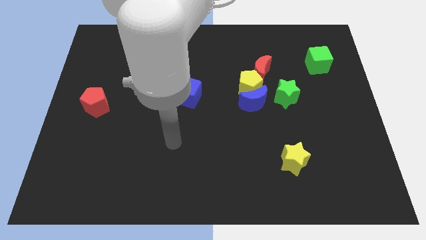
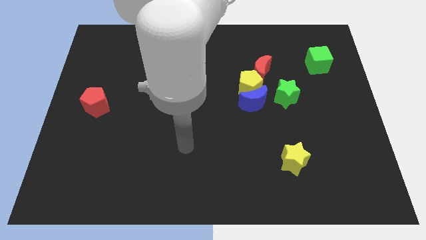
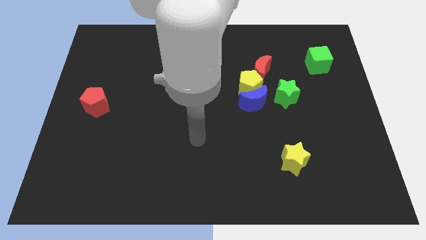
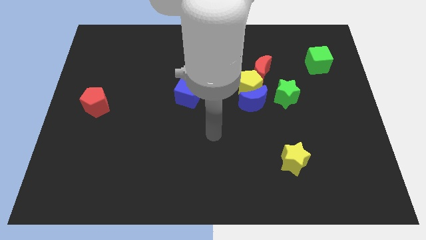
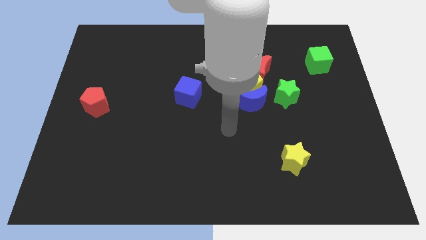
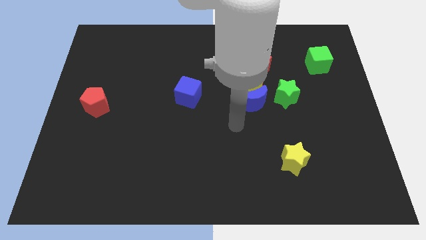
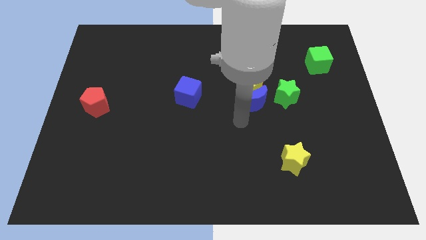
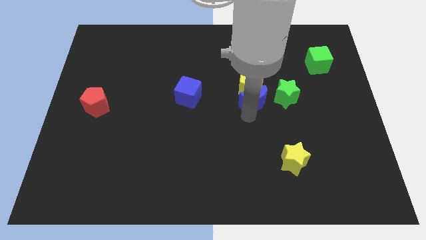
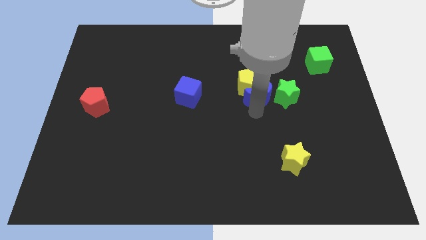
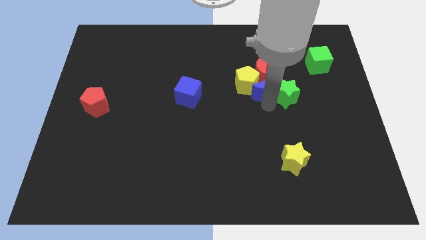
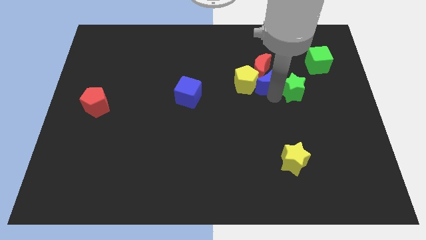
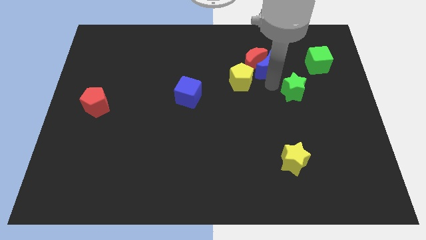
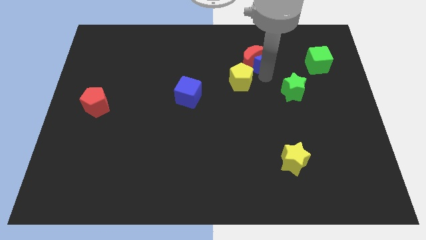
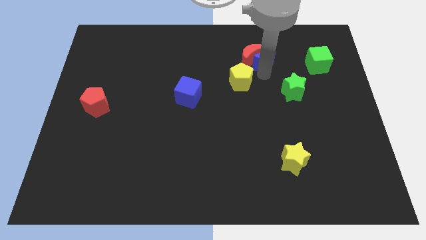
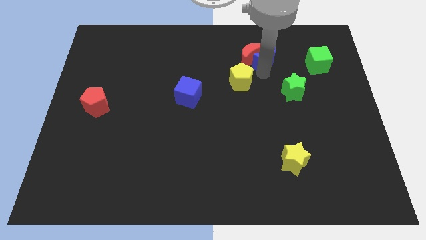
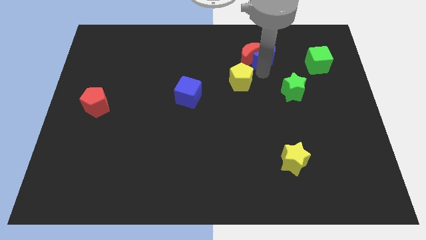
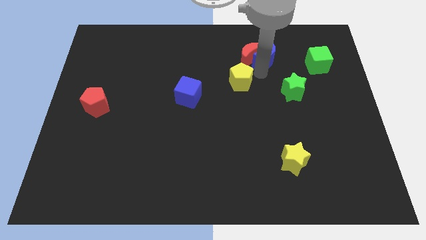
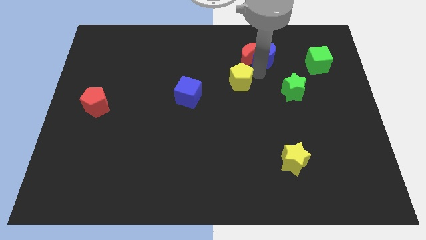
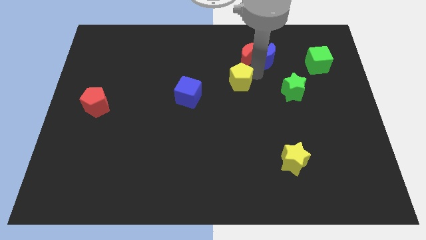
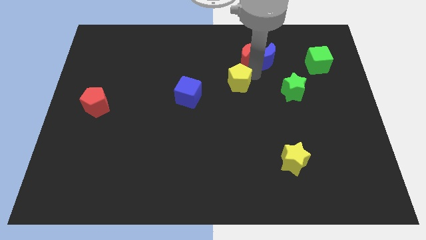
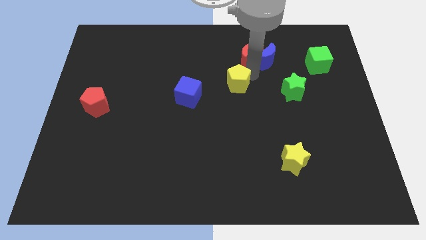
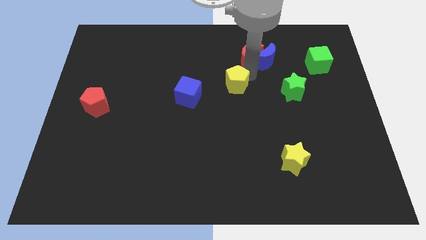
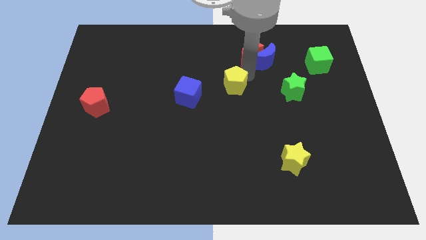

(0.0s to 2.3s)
pull the yellow pentagon apart from the blue moon, red moon, and green star

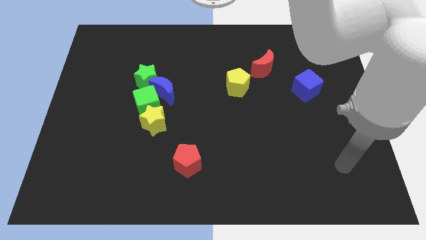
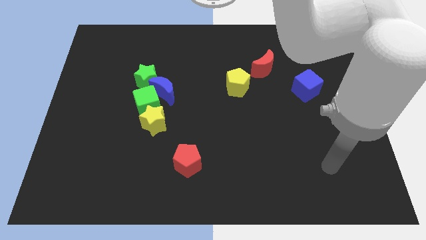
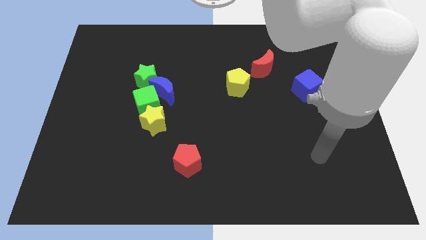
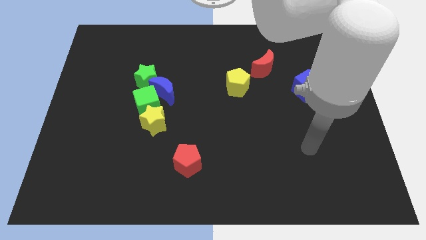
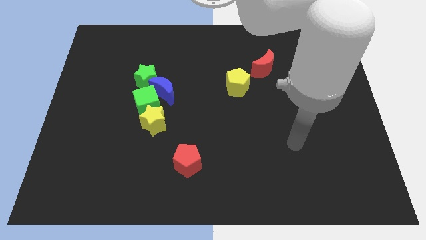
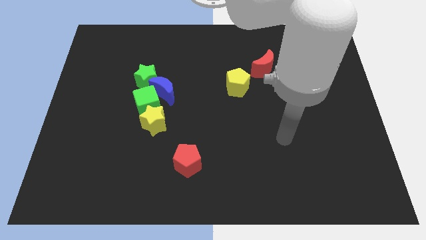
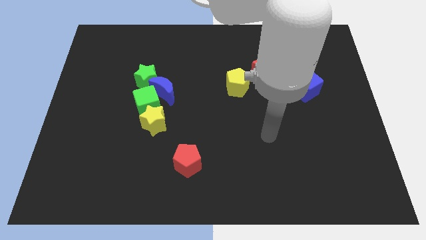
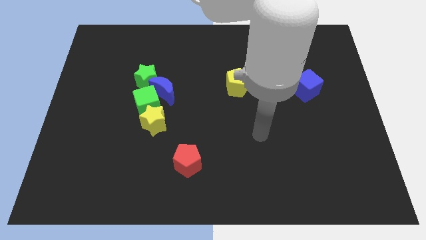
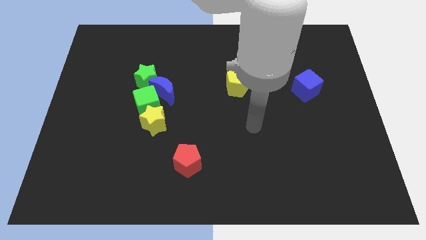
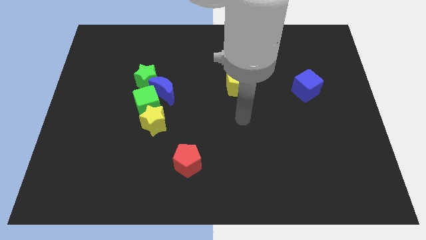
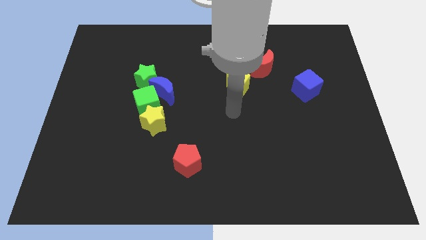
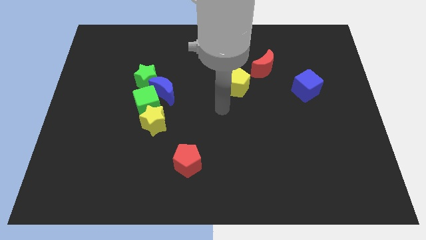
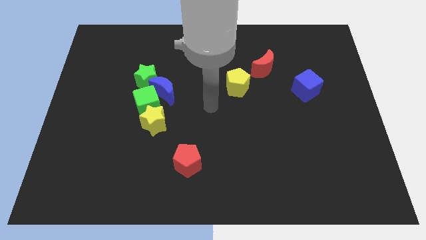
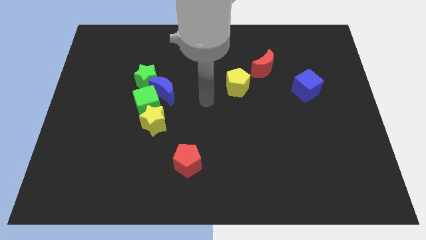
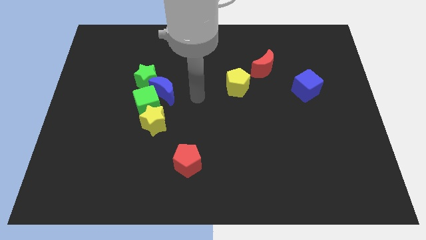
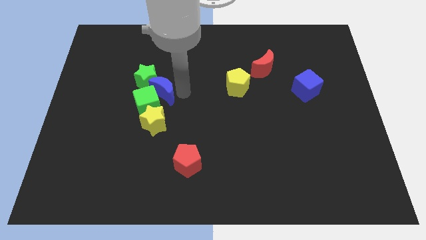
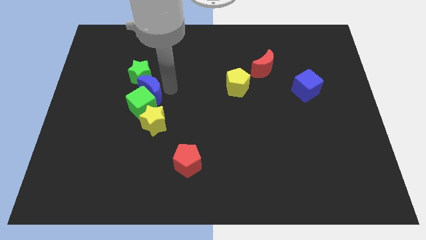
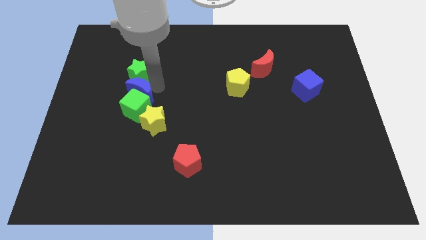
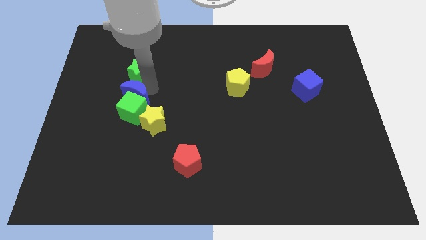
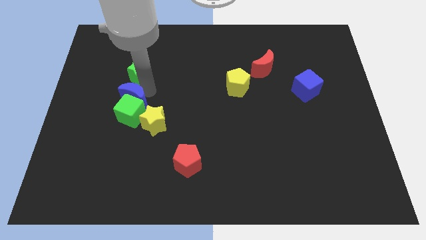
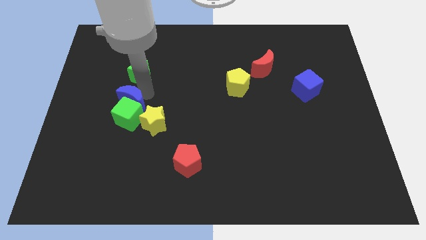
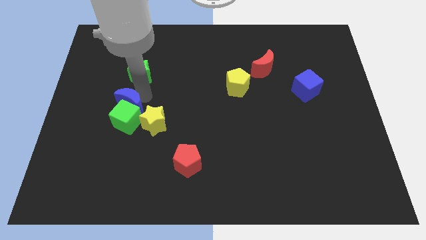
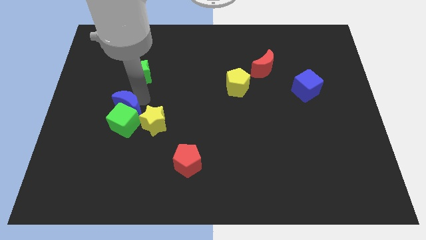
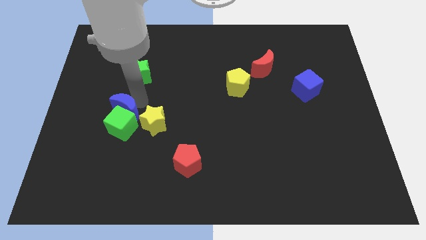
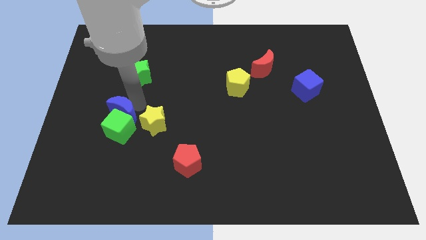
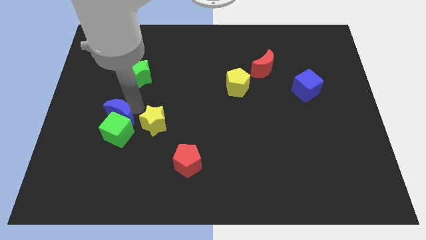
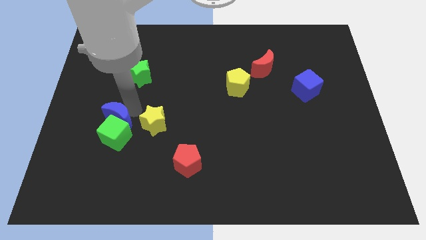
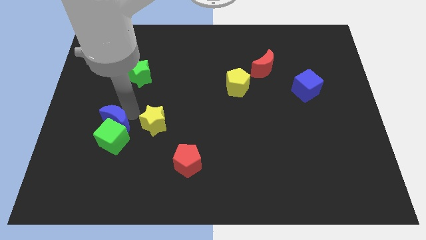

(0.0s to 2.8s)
move the green cube away from the clump

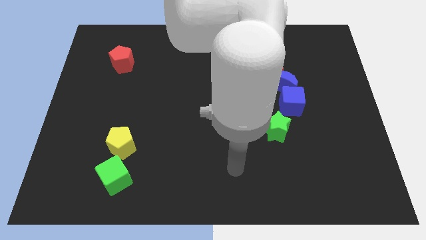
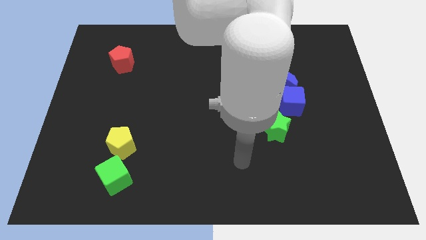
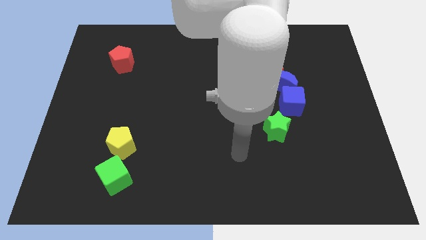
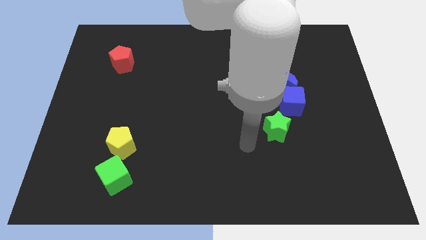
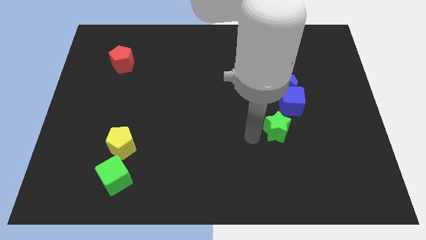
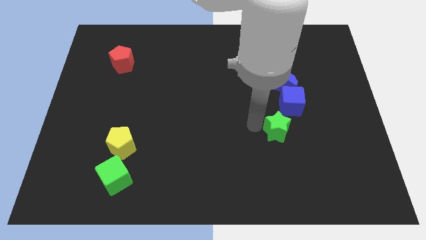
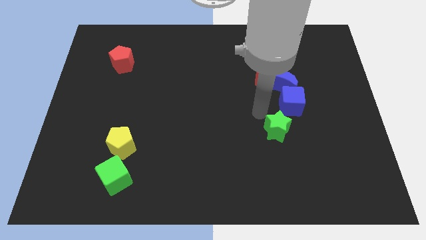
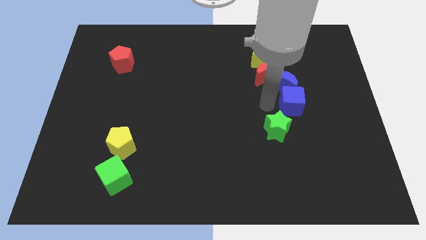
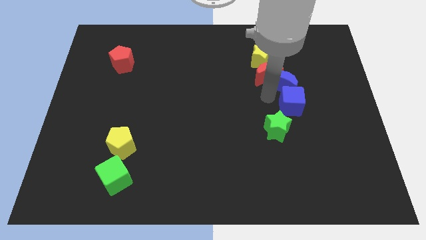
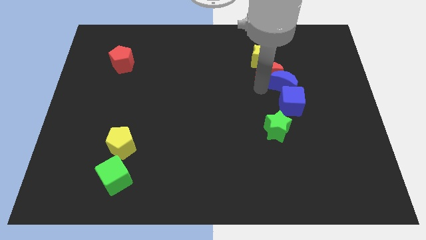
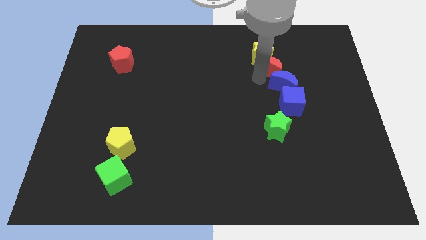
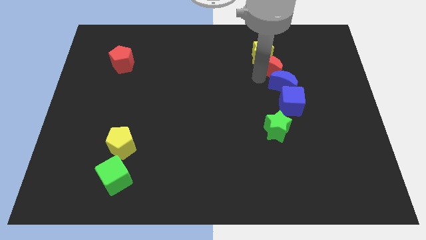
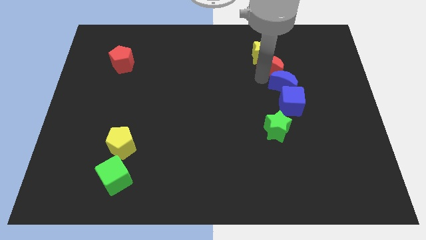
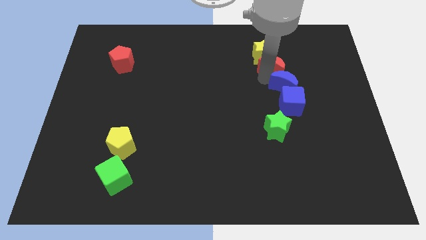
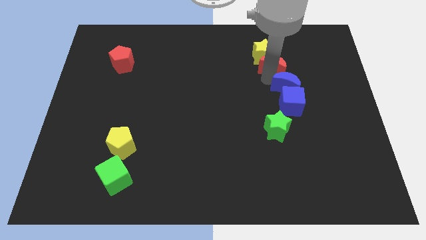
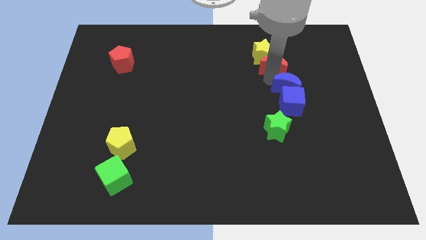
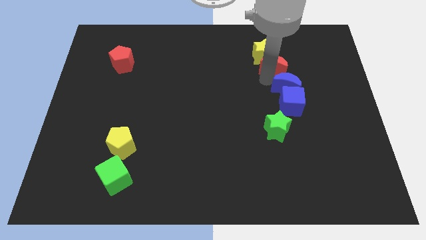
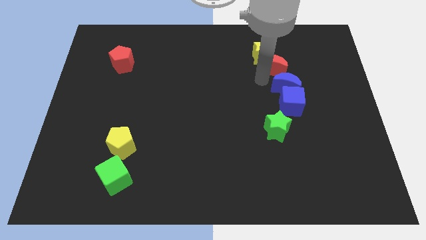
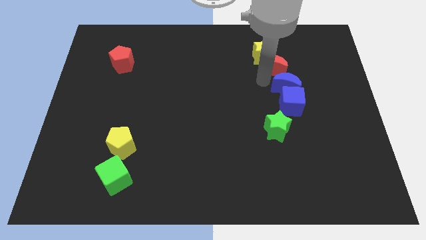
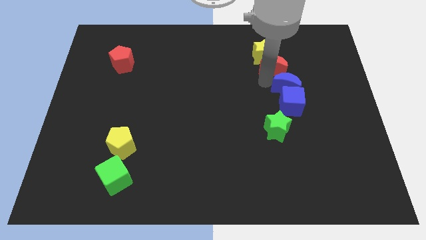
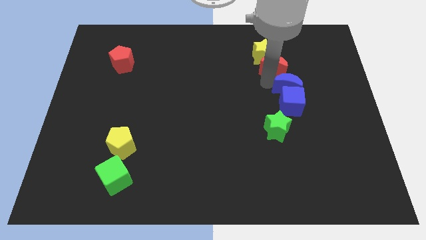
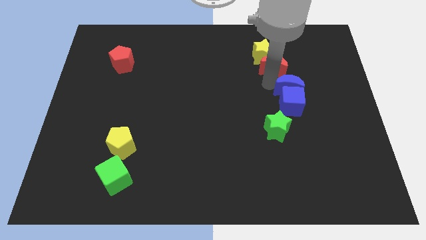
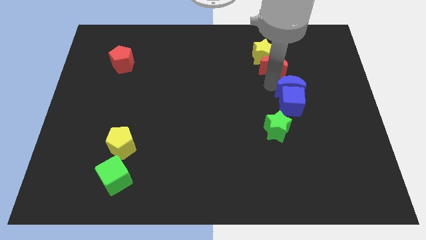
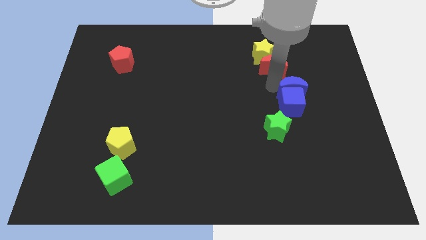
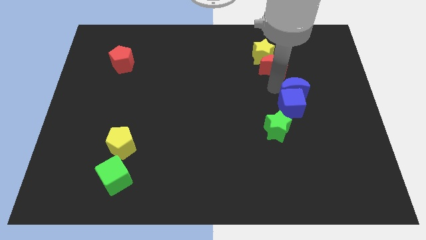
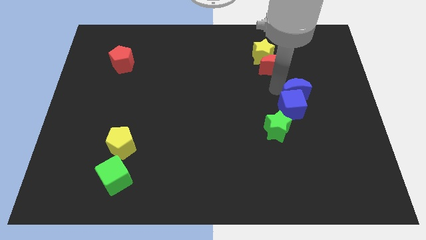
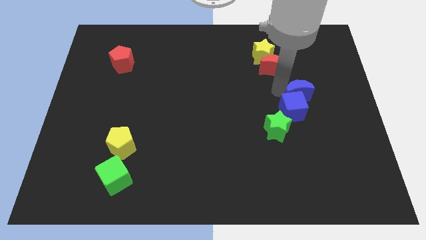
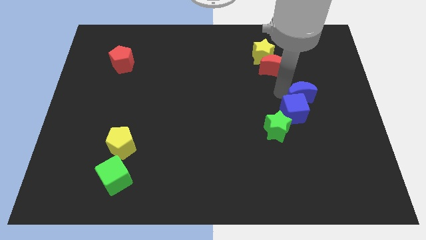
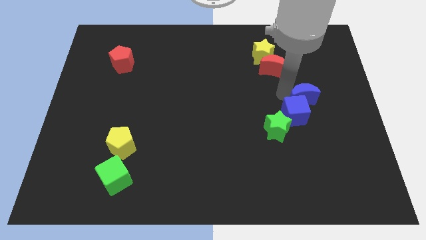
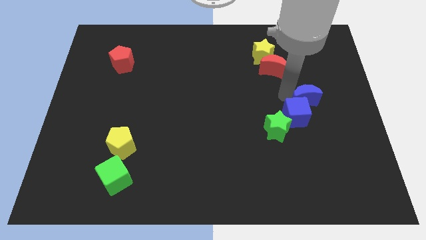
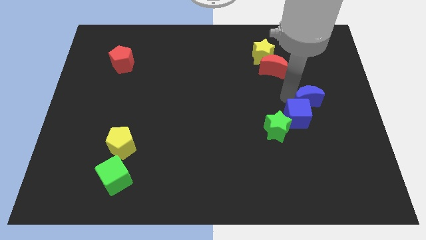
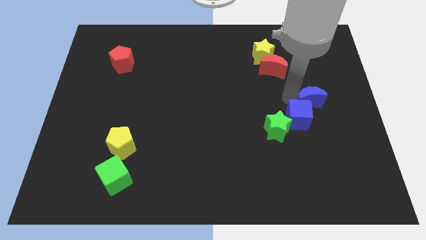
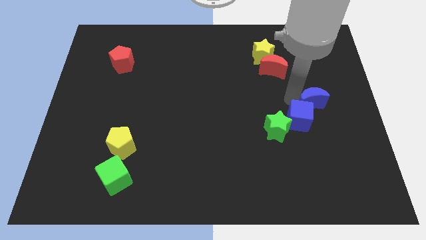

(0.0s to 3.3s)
pull the blue moon apart from the red moon, blue cube, and yellow star

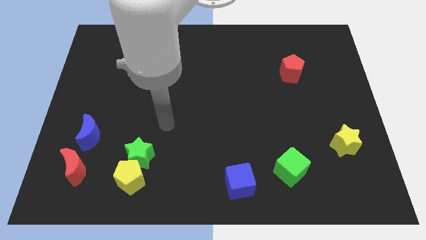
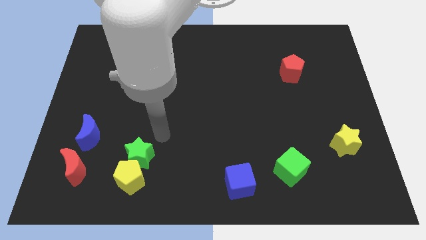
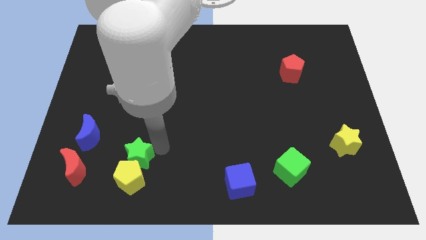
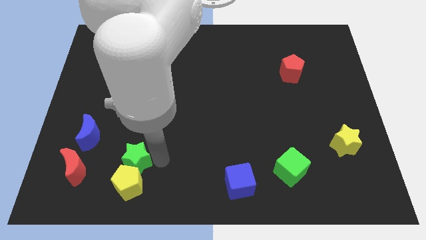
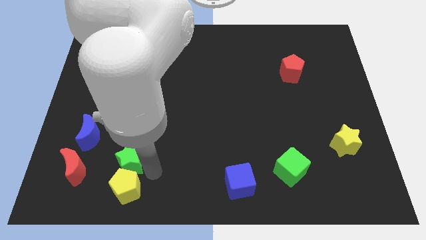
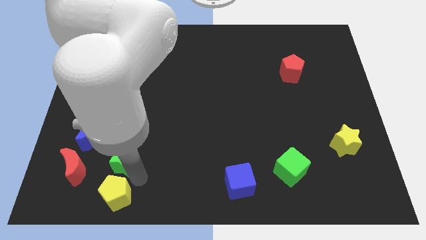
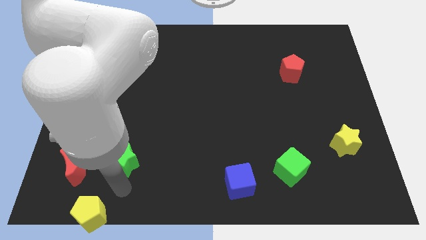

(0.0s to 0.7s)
separate the green star from the yellow pentagon

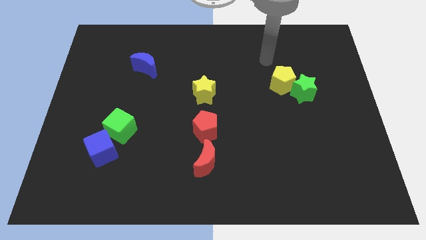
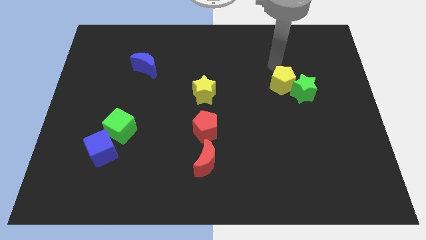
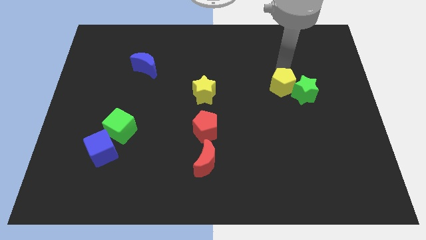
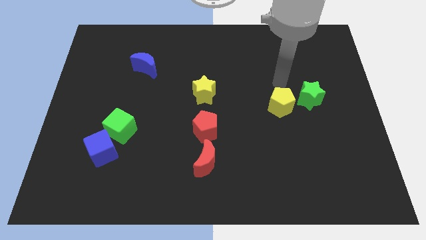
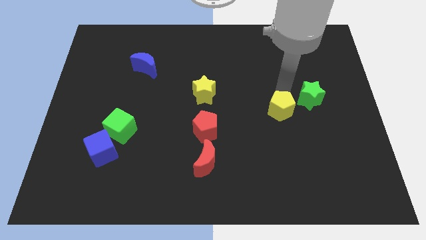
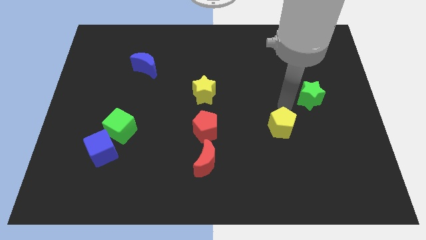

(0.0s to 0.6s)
move the green star away from the yellow pentagon
